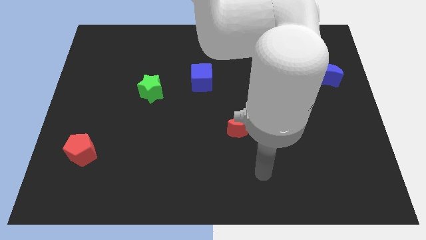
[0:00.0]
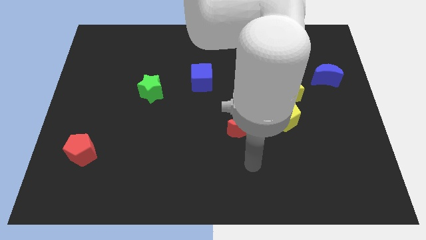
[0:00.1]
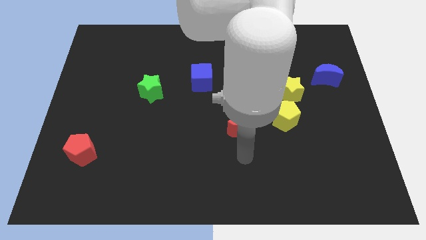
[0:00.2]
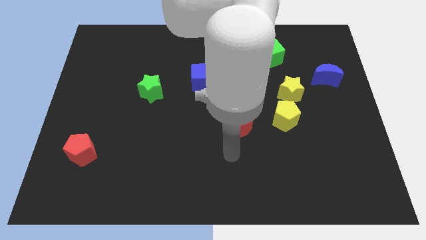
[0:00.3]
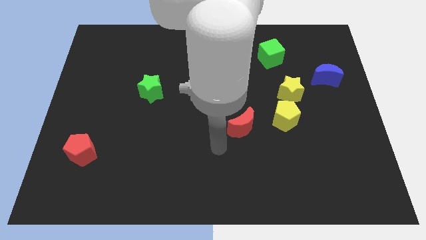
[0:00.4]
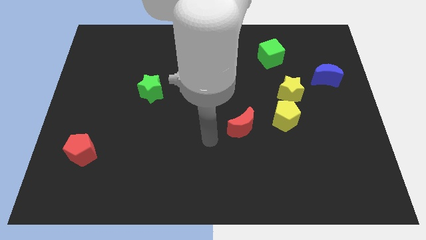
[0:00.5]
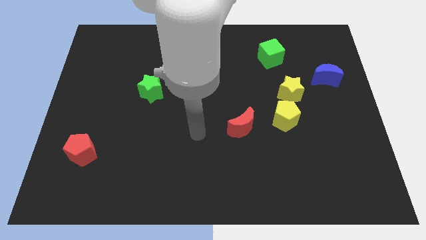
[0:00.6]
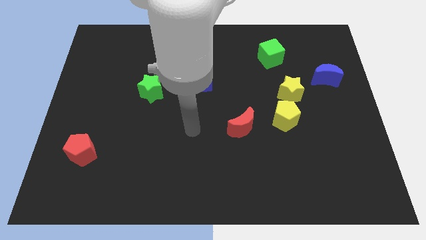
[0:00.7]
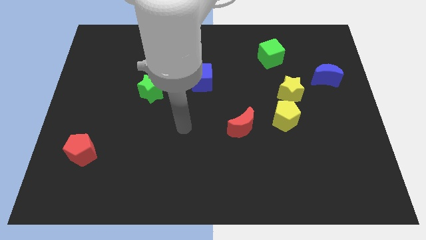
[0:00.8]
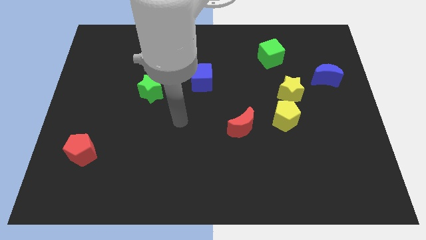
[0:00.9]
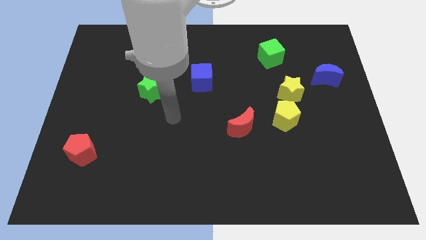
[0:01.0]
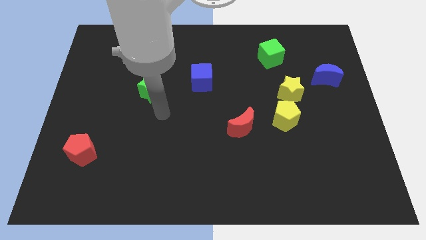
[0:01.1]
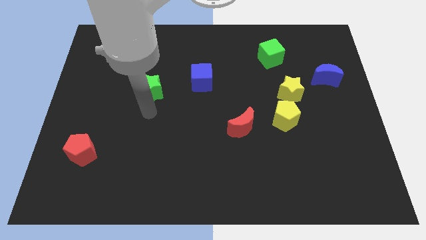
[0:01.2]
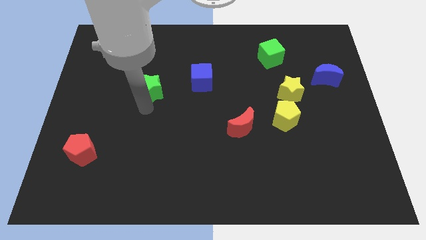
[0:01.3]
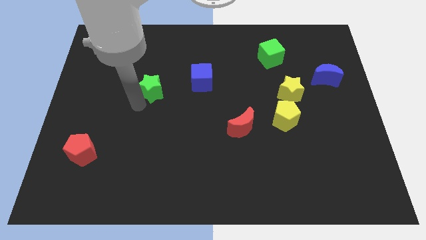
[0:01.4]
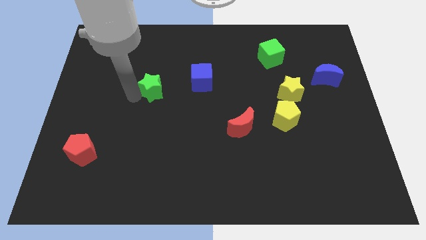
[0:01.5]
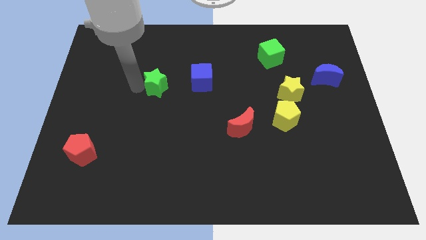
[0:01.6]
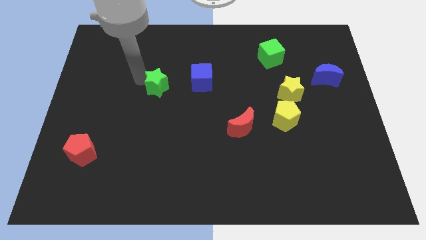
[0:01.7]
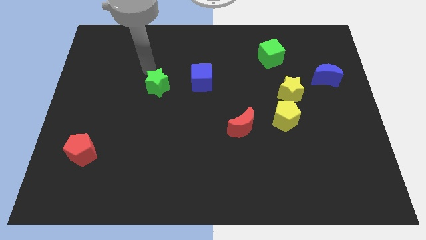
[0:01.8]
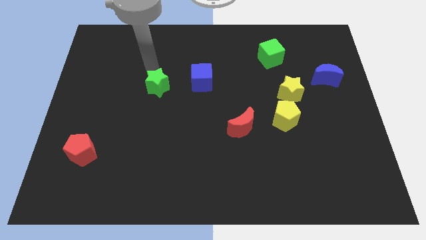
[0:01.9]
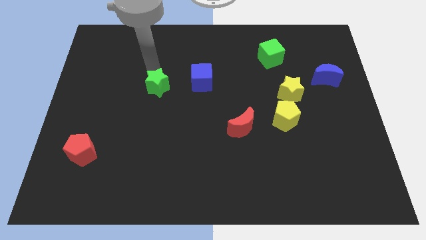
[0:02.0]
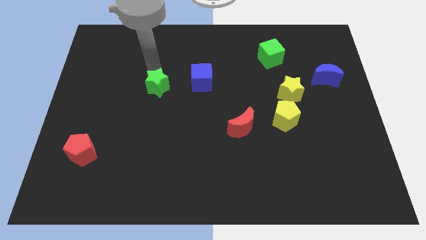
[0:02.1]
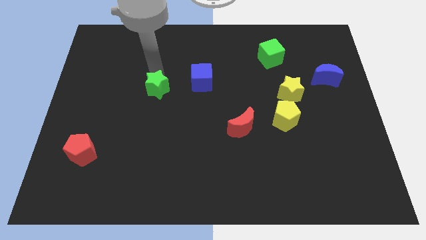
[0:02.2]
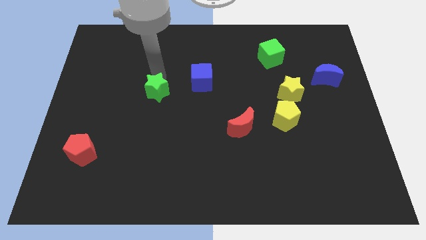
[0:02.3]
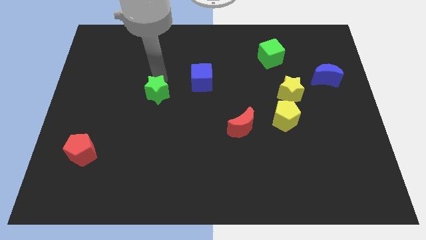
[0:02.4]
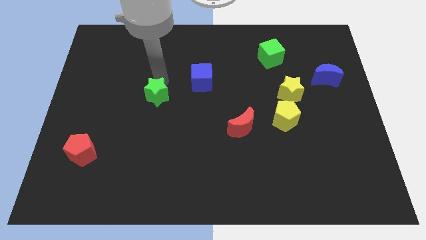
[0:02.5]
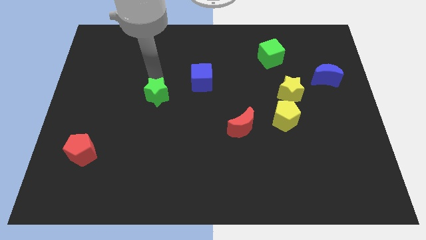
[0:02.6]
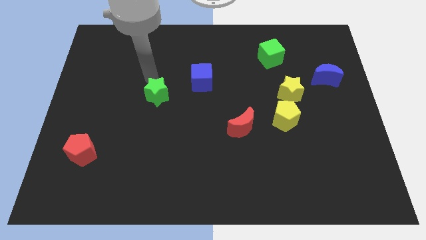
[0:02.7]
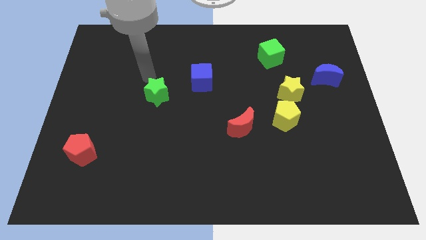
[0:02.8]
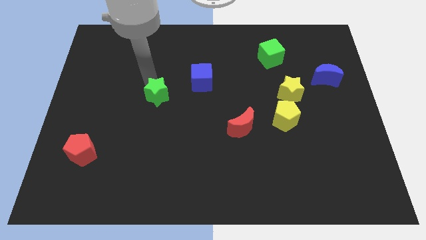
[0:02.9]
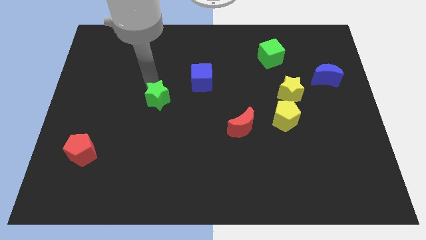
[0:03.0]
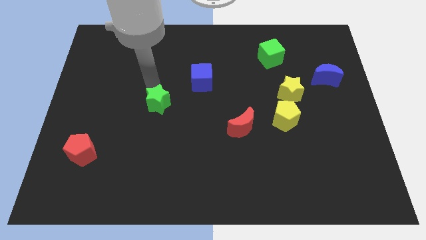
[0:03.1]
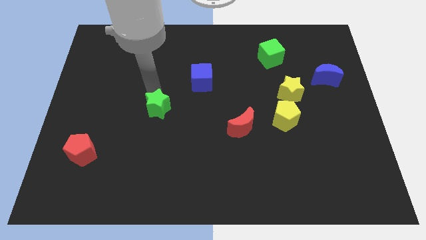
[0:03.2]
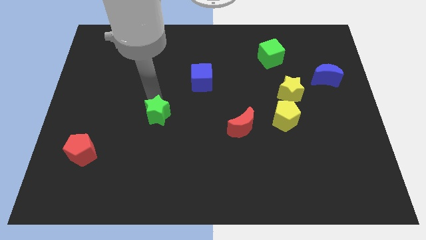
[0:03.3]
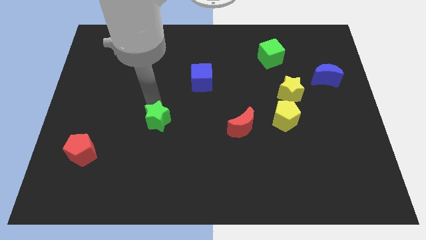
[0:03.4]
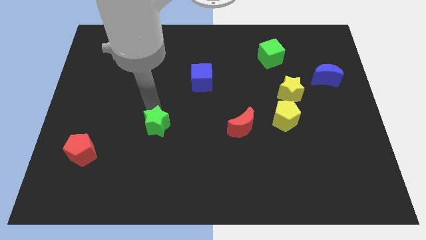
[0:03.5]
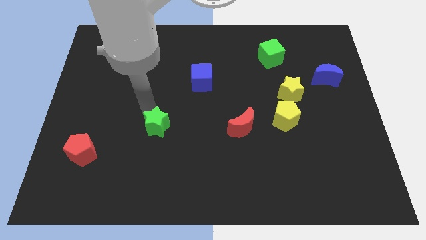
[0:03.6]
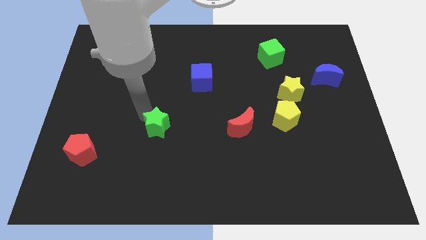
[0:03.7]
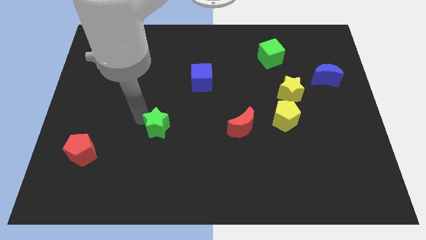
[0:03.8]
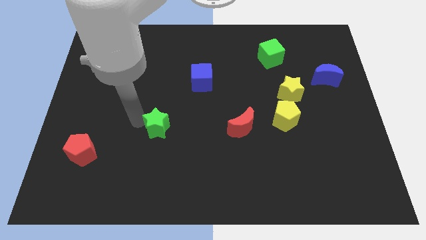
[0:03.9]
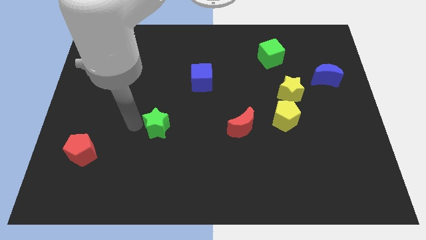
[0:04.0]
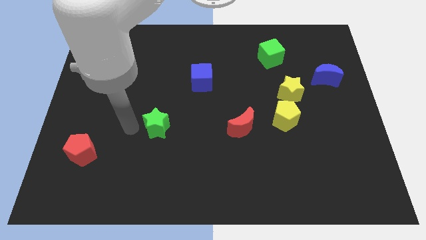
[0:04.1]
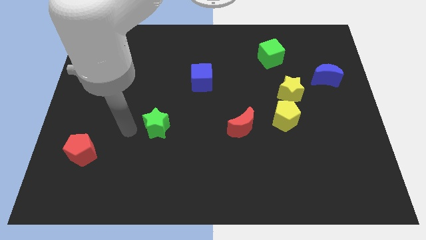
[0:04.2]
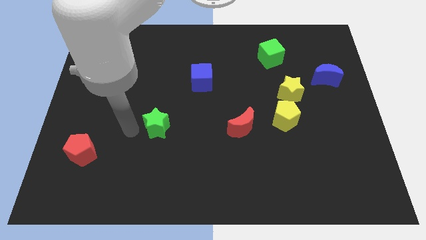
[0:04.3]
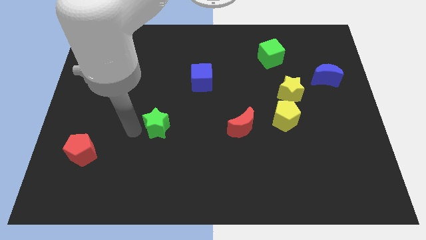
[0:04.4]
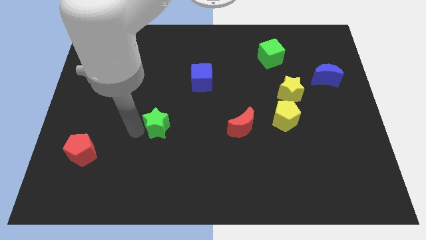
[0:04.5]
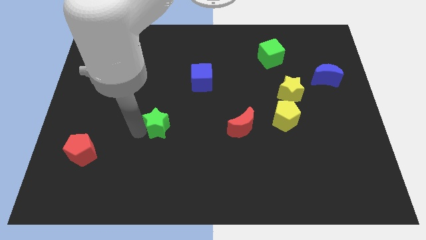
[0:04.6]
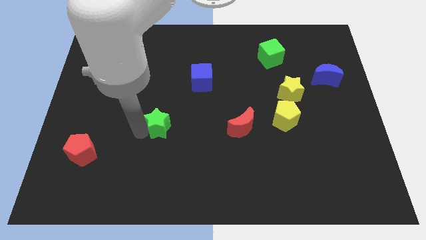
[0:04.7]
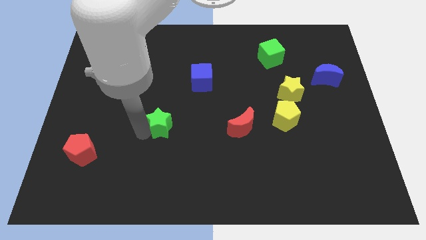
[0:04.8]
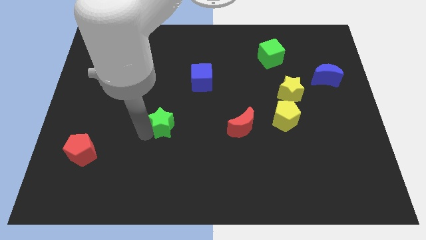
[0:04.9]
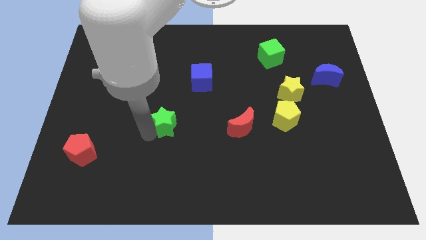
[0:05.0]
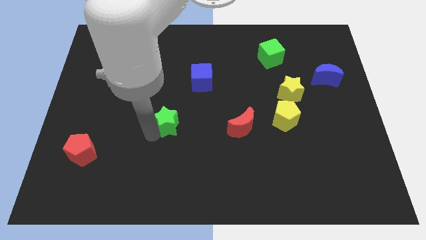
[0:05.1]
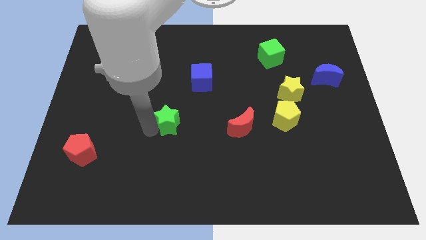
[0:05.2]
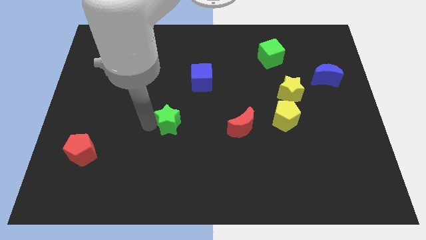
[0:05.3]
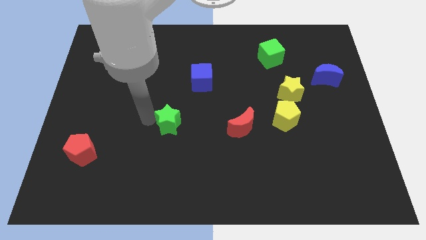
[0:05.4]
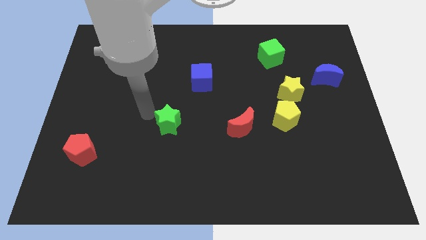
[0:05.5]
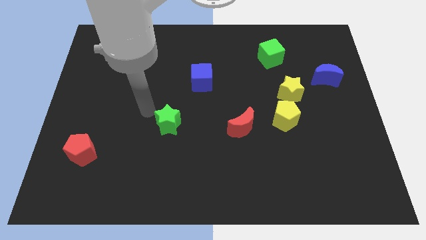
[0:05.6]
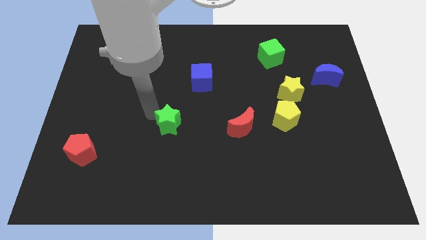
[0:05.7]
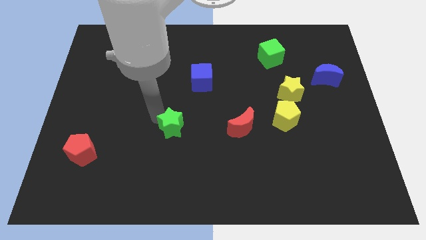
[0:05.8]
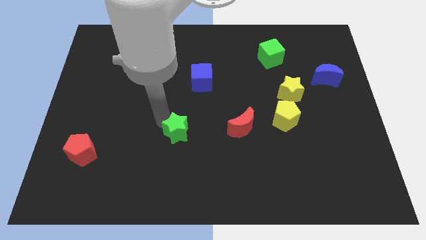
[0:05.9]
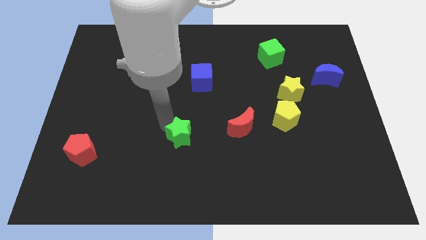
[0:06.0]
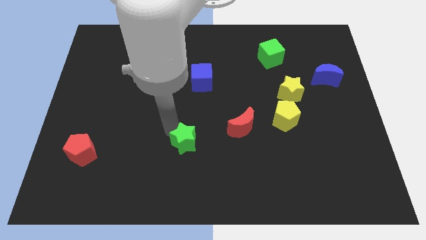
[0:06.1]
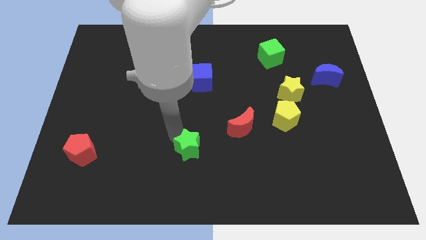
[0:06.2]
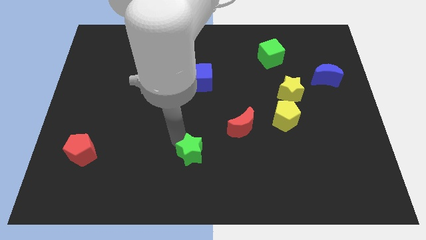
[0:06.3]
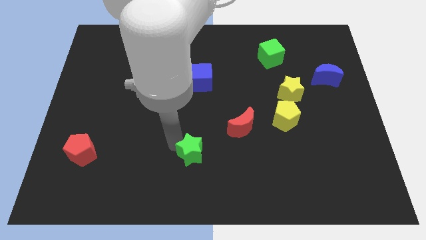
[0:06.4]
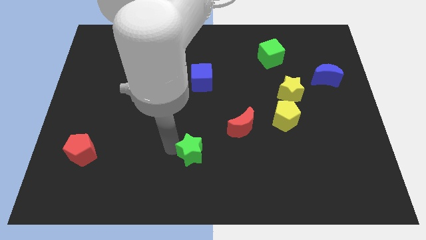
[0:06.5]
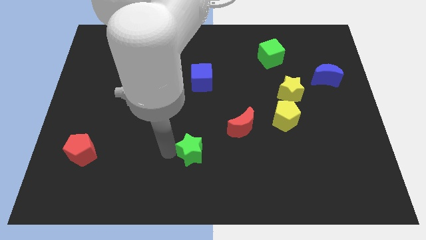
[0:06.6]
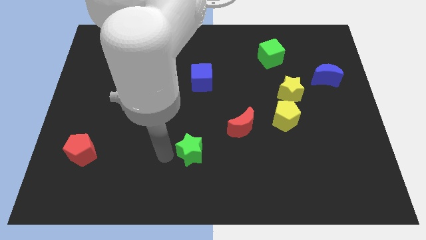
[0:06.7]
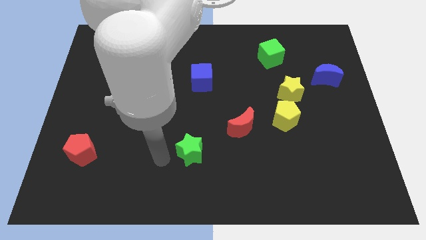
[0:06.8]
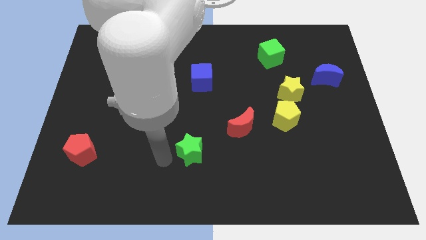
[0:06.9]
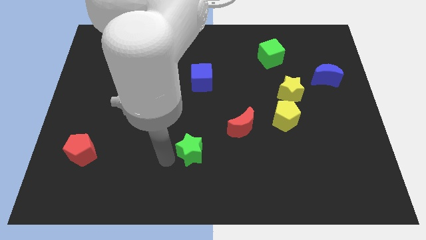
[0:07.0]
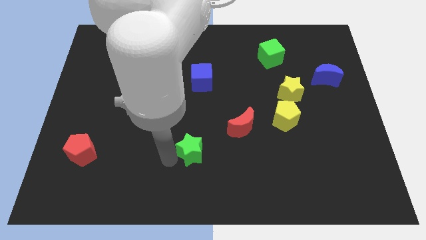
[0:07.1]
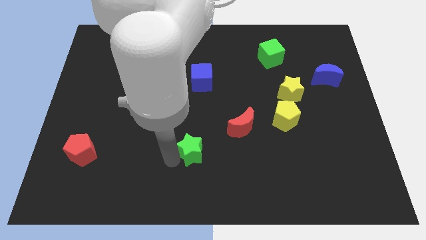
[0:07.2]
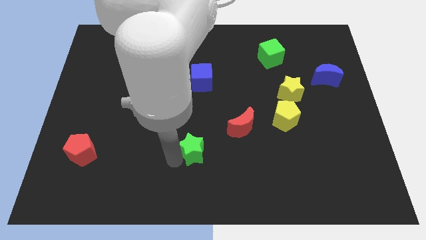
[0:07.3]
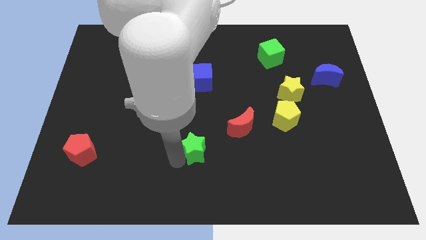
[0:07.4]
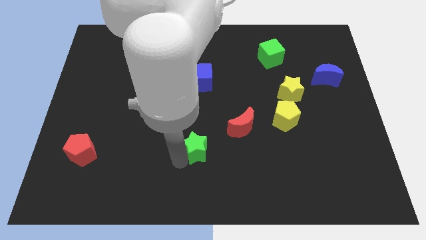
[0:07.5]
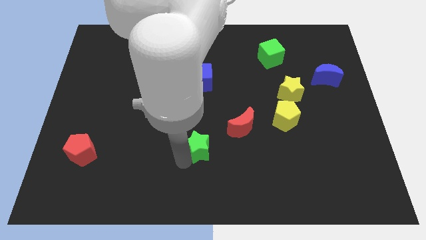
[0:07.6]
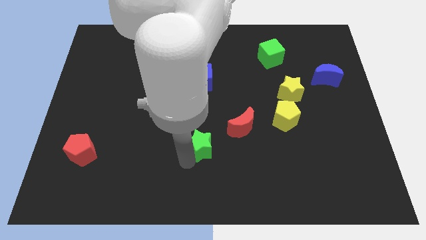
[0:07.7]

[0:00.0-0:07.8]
push the green star down and right

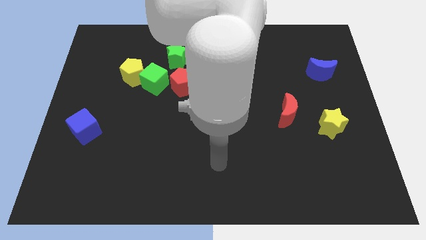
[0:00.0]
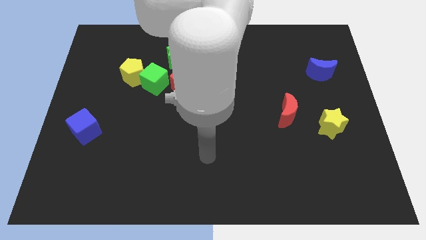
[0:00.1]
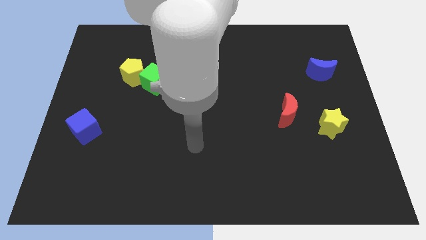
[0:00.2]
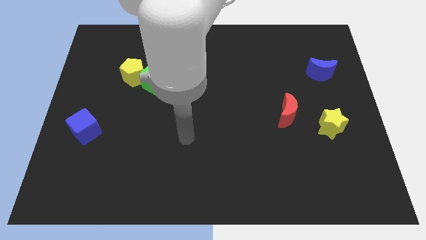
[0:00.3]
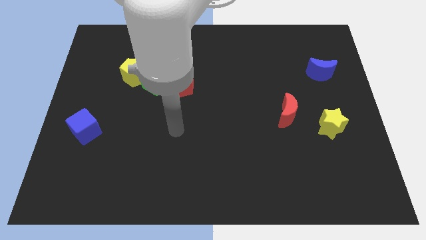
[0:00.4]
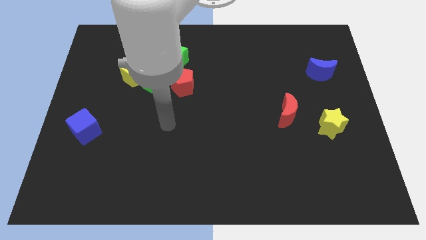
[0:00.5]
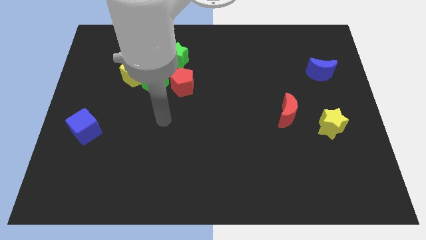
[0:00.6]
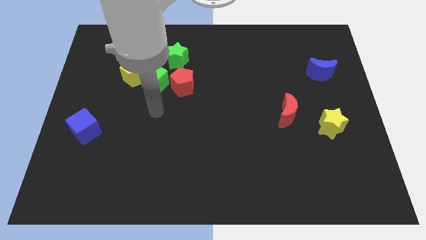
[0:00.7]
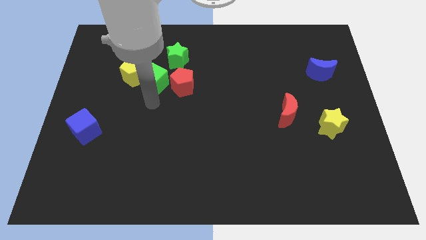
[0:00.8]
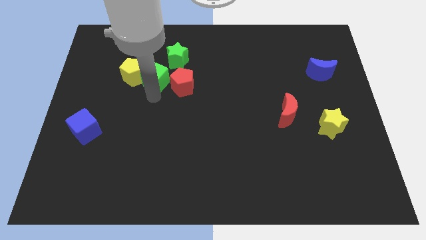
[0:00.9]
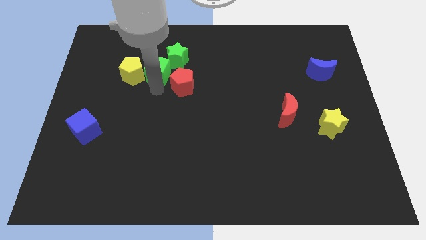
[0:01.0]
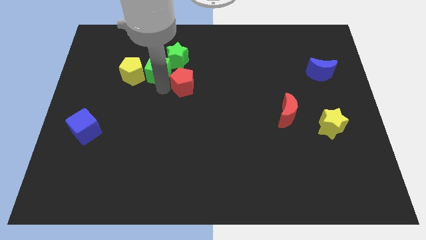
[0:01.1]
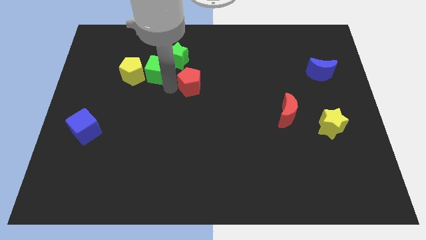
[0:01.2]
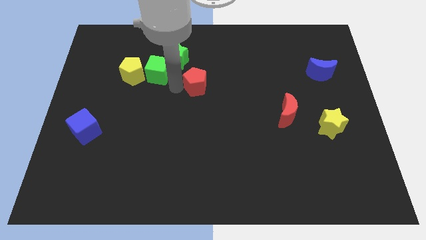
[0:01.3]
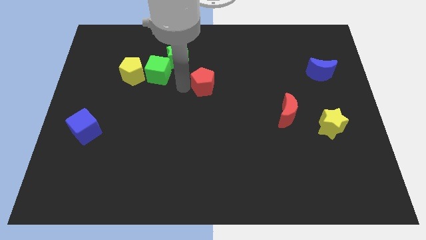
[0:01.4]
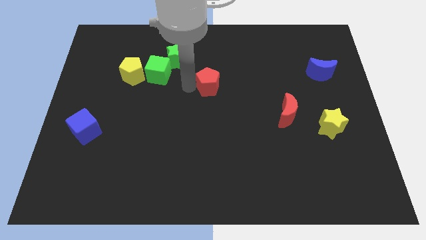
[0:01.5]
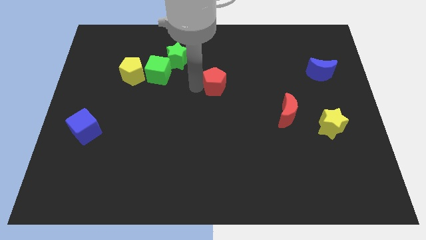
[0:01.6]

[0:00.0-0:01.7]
slide the red pentagon to the right slightly
